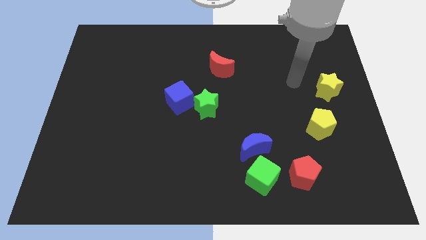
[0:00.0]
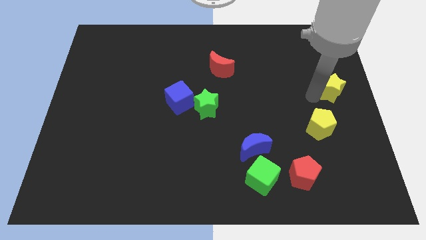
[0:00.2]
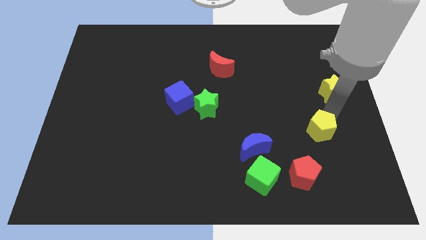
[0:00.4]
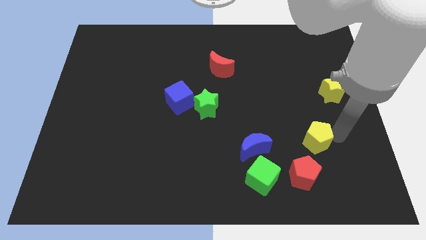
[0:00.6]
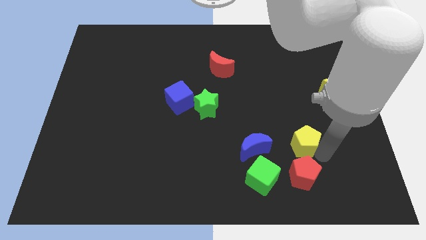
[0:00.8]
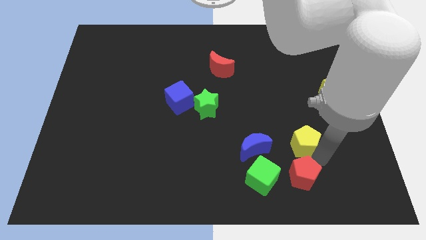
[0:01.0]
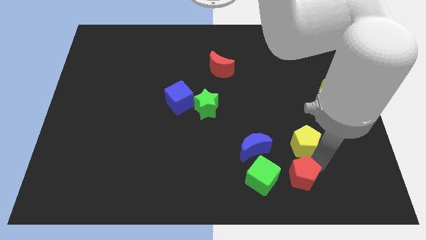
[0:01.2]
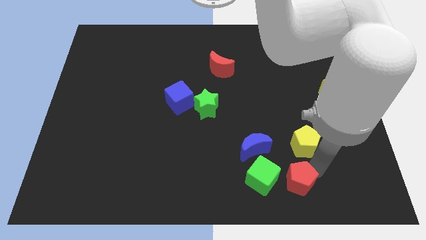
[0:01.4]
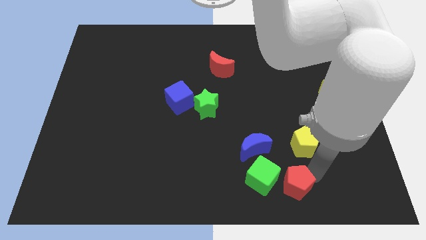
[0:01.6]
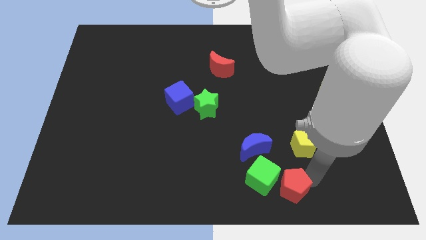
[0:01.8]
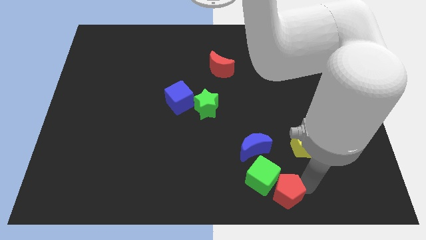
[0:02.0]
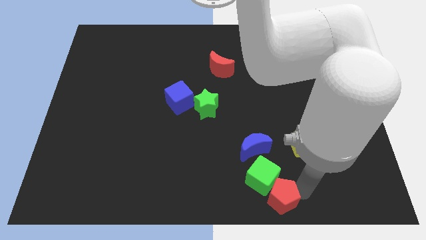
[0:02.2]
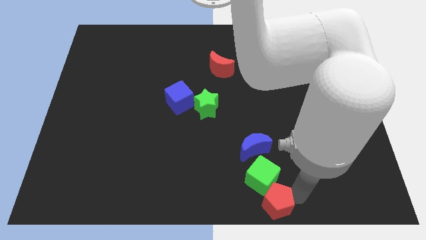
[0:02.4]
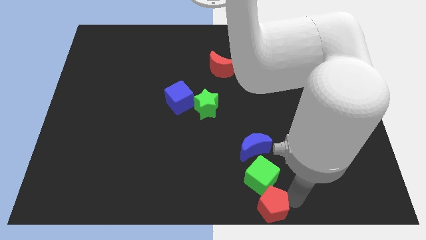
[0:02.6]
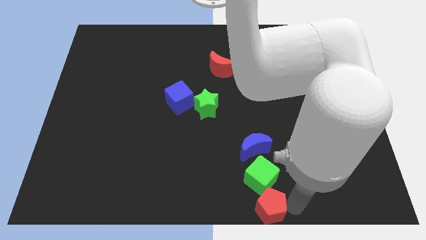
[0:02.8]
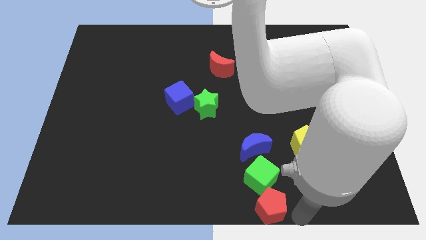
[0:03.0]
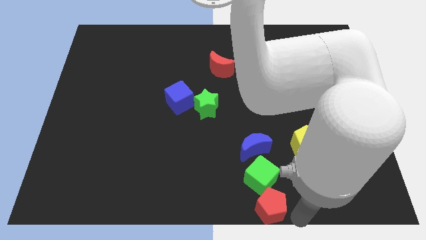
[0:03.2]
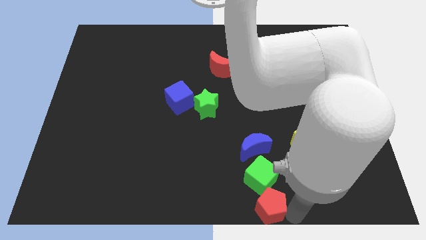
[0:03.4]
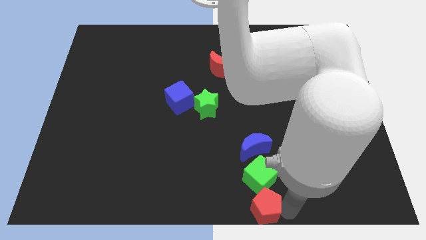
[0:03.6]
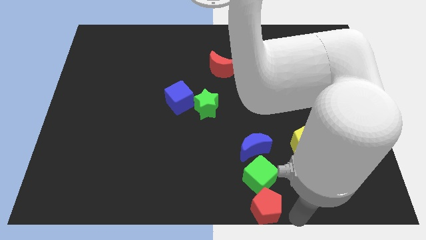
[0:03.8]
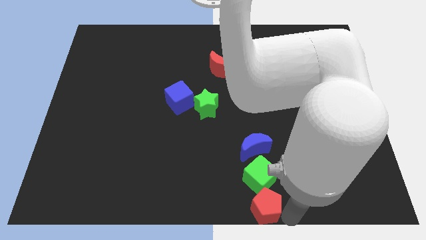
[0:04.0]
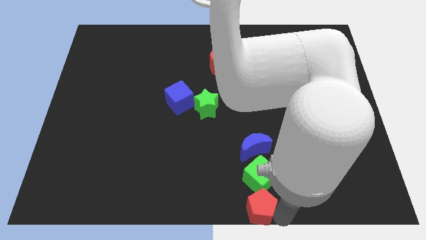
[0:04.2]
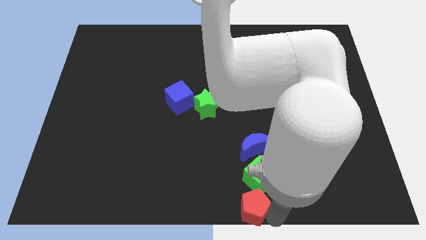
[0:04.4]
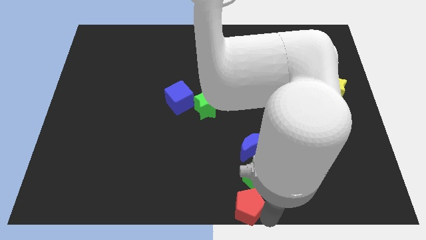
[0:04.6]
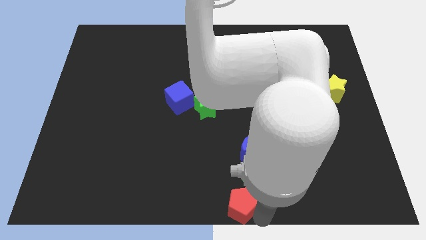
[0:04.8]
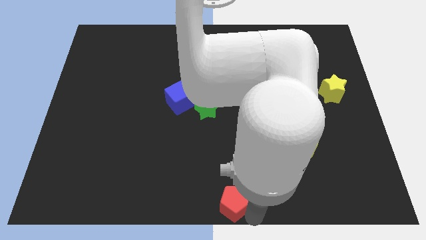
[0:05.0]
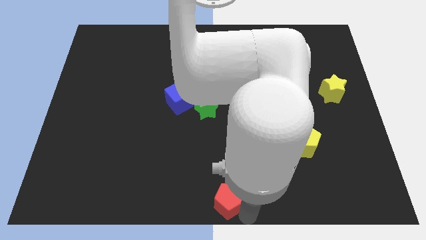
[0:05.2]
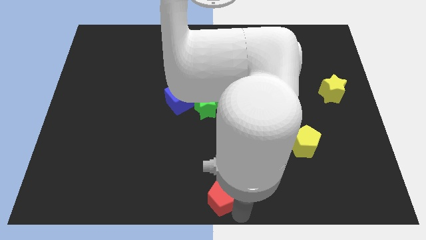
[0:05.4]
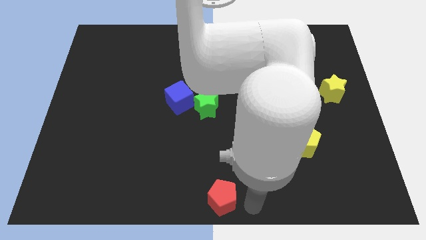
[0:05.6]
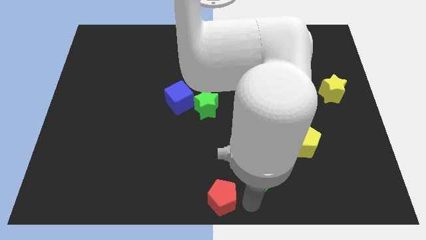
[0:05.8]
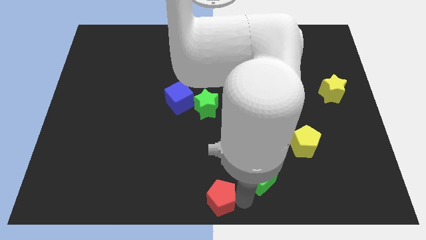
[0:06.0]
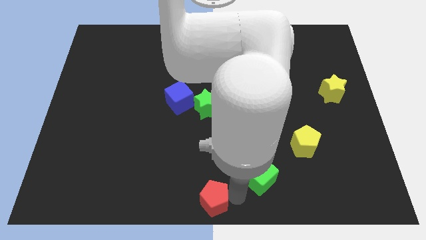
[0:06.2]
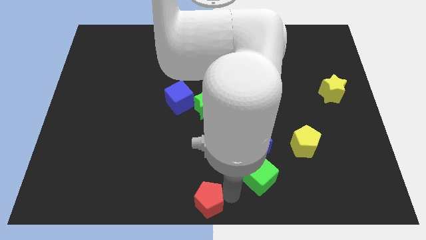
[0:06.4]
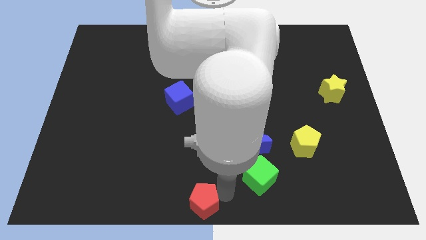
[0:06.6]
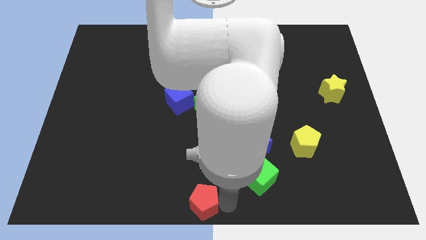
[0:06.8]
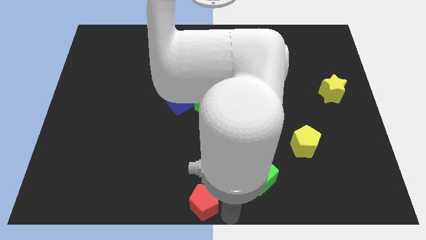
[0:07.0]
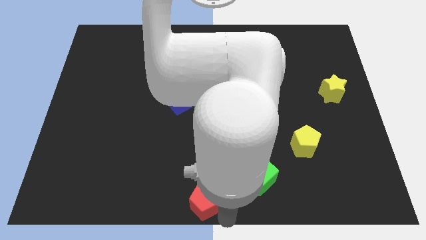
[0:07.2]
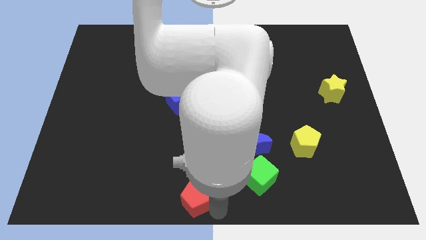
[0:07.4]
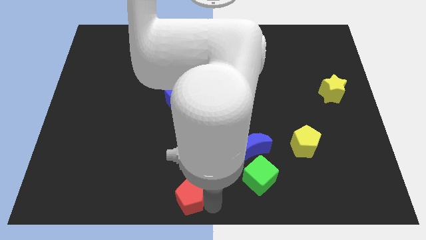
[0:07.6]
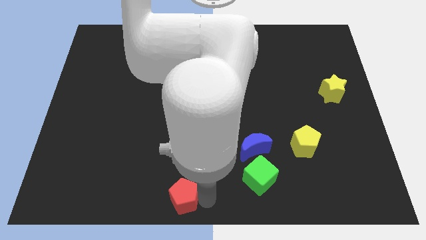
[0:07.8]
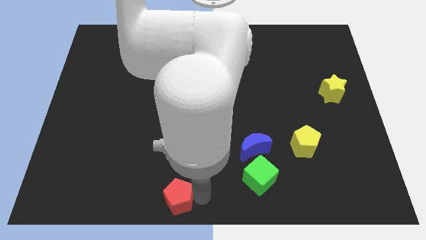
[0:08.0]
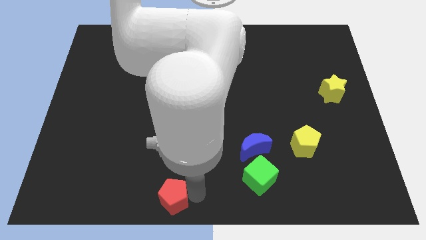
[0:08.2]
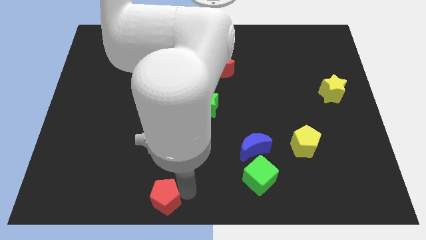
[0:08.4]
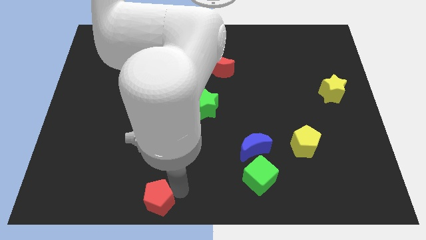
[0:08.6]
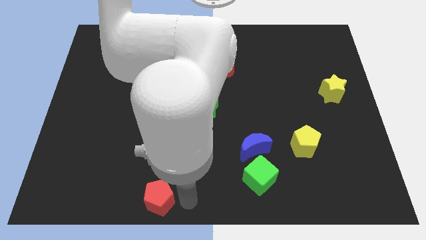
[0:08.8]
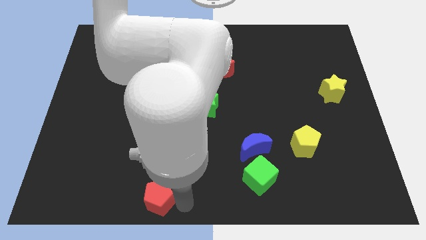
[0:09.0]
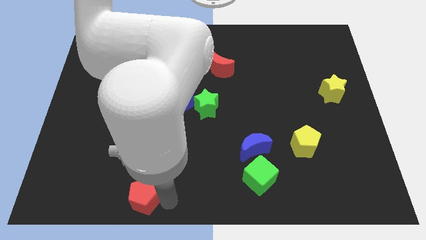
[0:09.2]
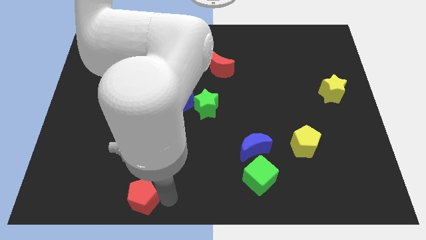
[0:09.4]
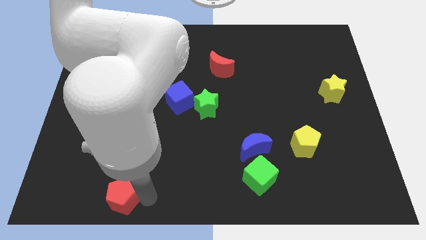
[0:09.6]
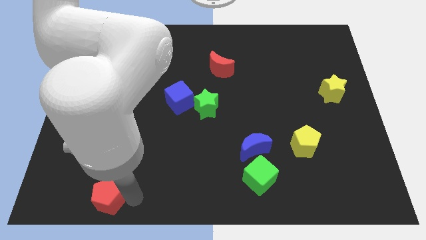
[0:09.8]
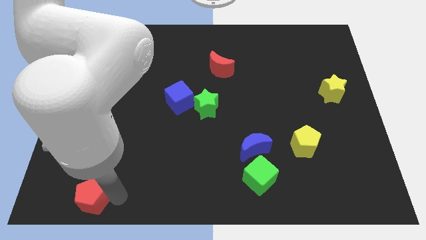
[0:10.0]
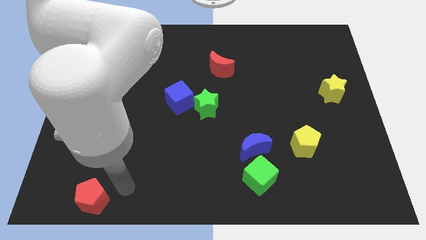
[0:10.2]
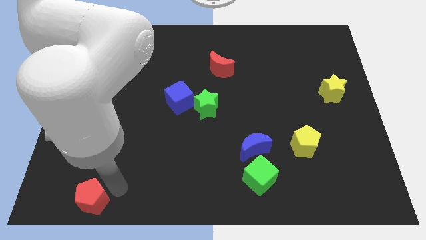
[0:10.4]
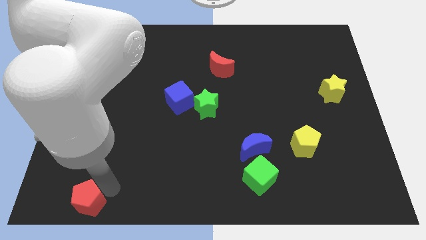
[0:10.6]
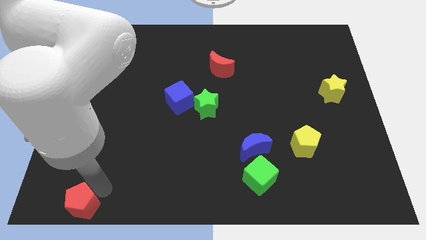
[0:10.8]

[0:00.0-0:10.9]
push the red pentagon to the bottom left of the board

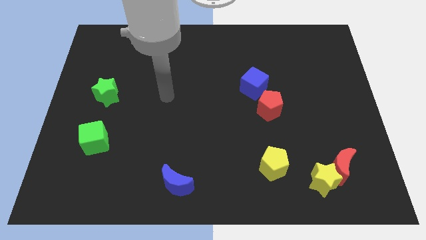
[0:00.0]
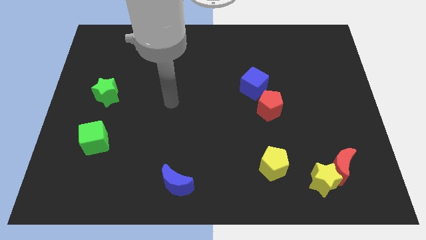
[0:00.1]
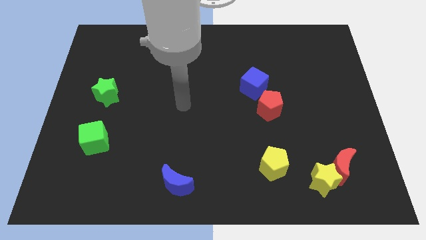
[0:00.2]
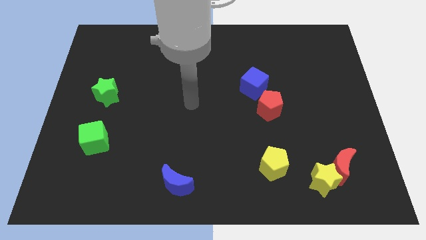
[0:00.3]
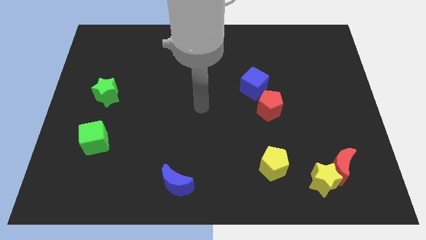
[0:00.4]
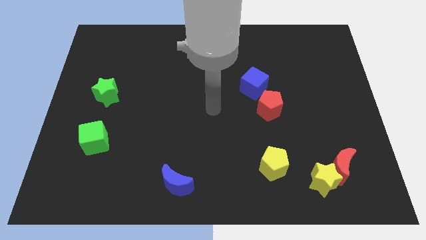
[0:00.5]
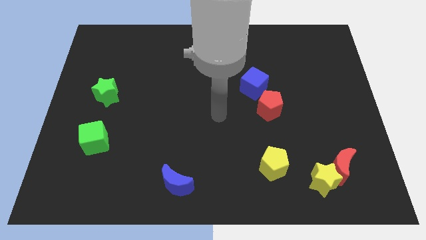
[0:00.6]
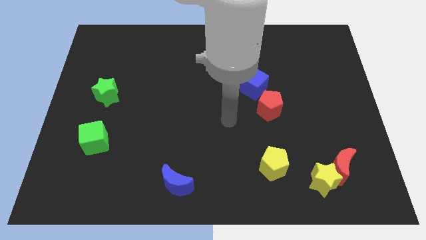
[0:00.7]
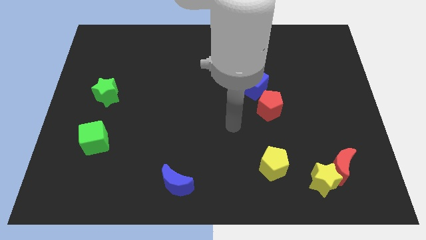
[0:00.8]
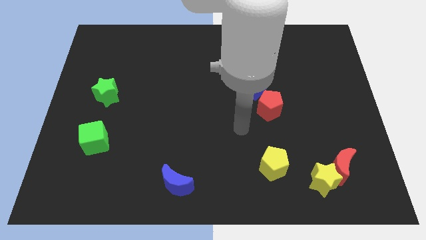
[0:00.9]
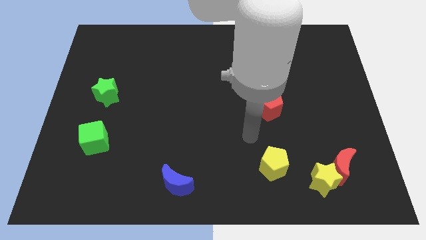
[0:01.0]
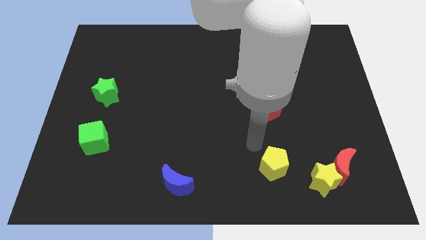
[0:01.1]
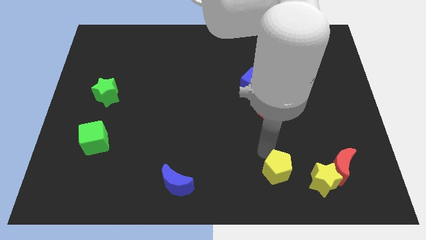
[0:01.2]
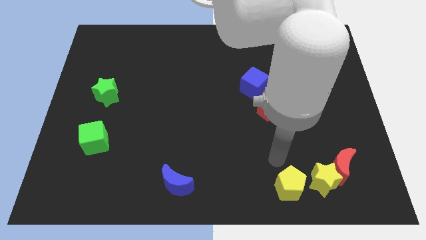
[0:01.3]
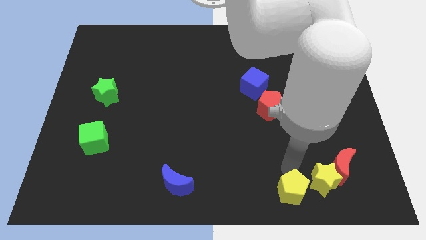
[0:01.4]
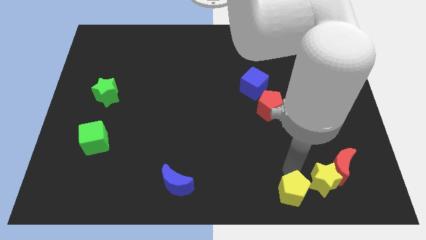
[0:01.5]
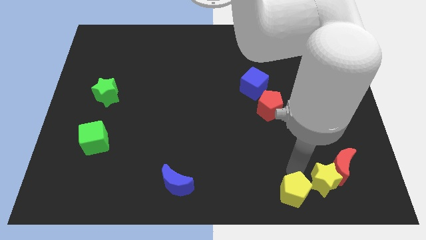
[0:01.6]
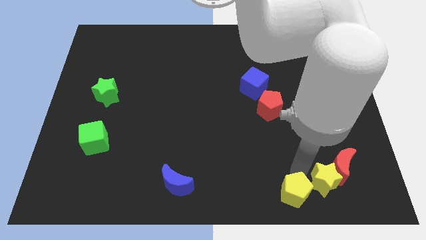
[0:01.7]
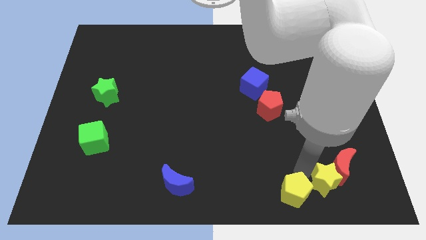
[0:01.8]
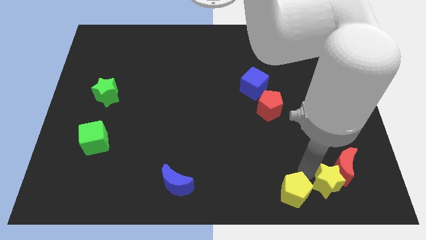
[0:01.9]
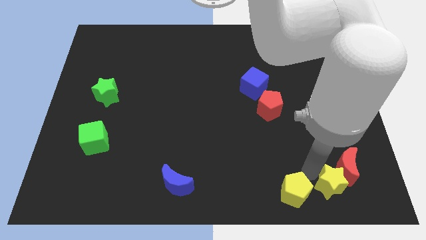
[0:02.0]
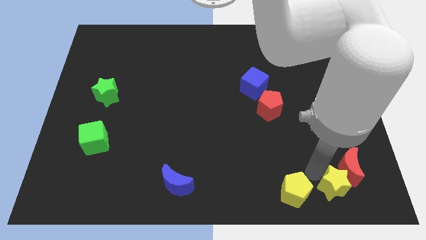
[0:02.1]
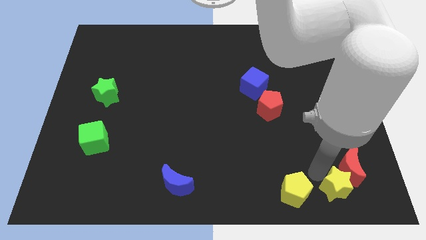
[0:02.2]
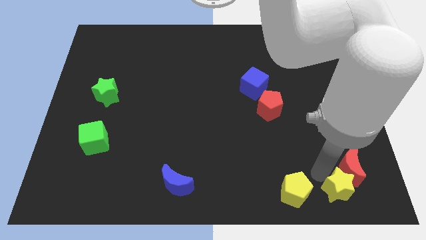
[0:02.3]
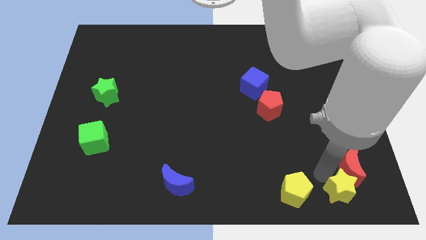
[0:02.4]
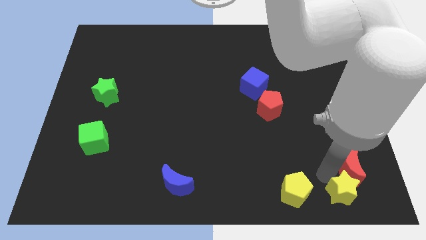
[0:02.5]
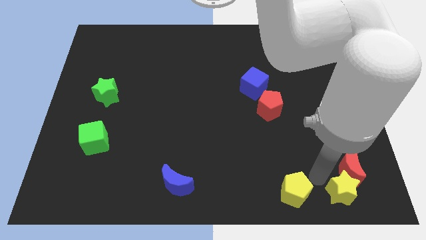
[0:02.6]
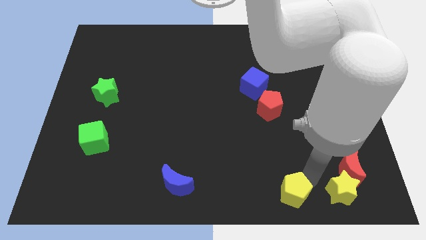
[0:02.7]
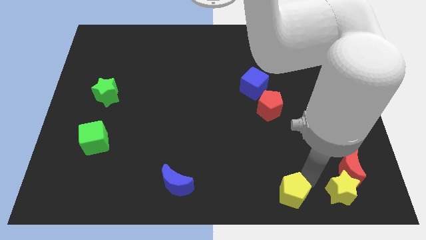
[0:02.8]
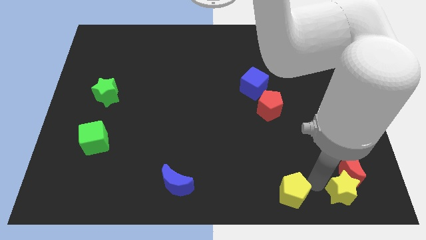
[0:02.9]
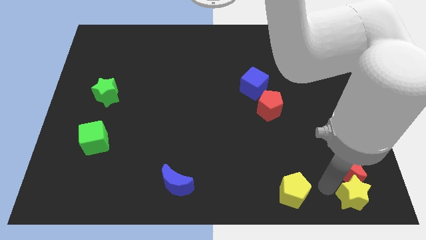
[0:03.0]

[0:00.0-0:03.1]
put the yellow star to the bottom right
